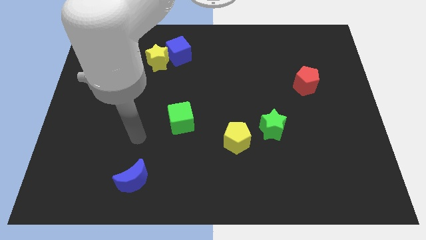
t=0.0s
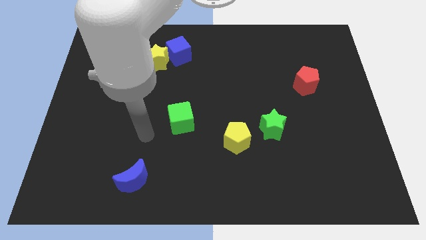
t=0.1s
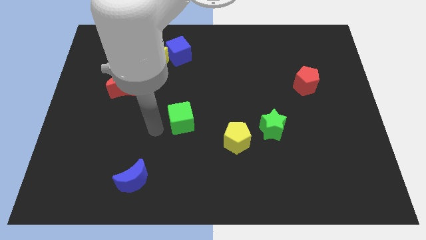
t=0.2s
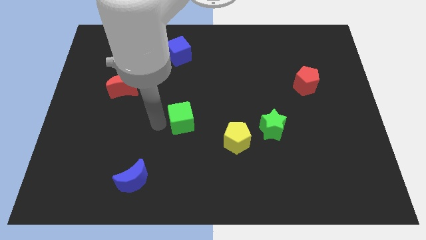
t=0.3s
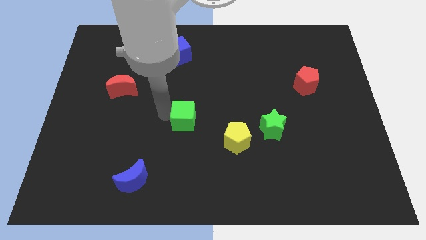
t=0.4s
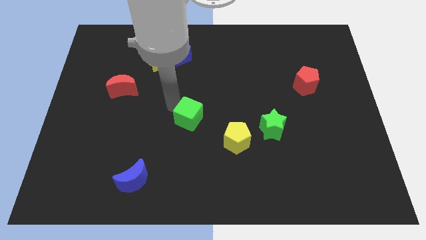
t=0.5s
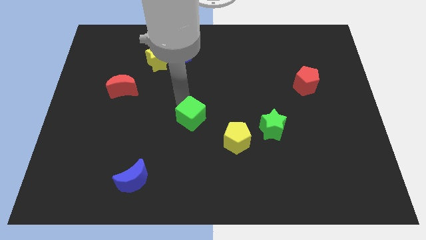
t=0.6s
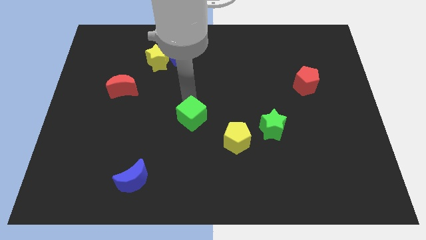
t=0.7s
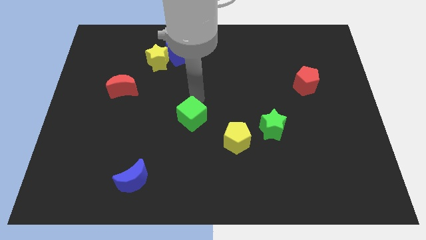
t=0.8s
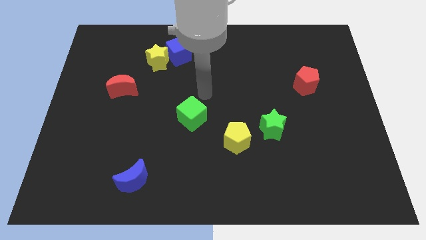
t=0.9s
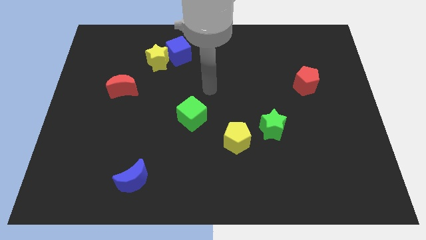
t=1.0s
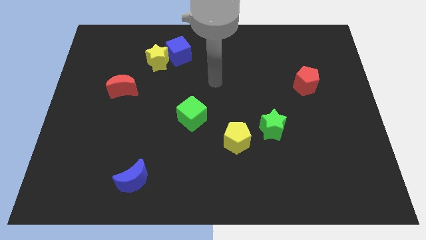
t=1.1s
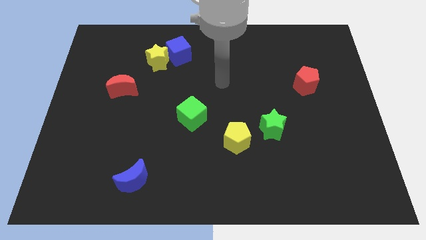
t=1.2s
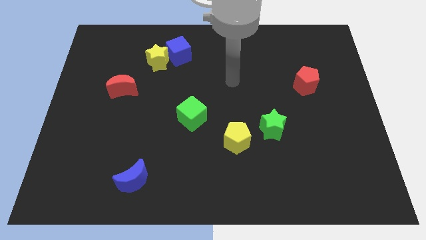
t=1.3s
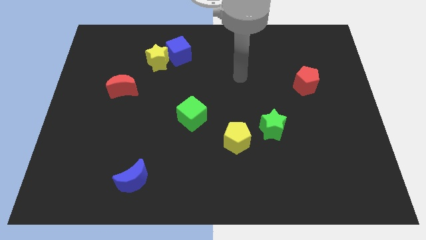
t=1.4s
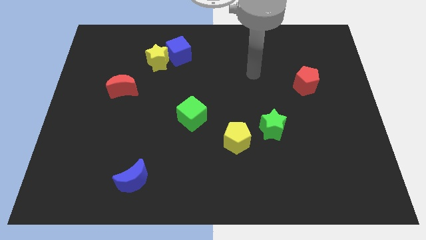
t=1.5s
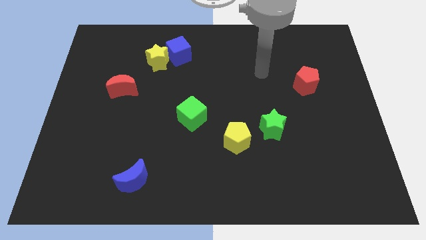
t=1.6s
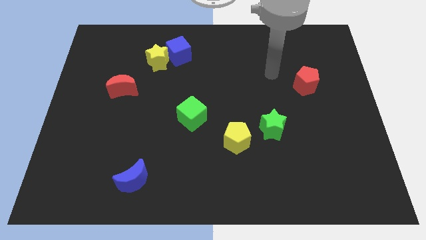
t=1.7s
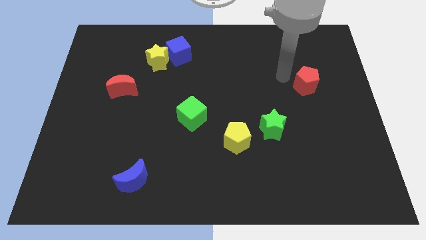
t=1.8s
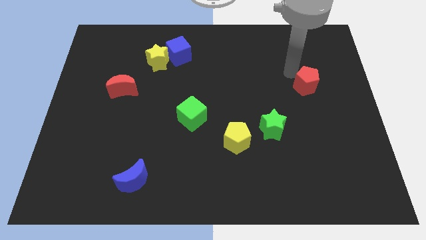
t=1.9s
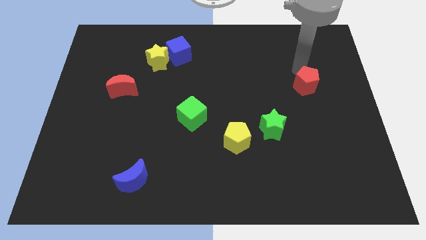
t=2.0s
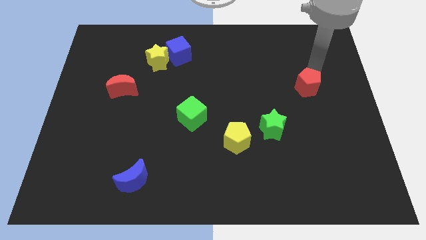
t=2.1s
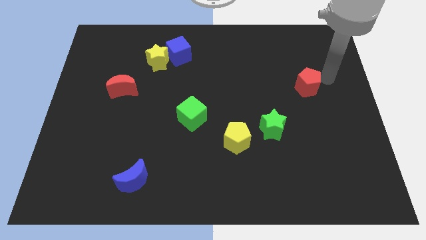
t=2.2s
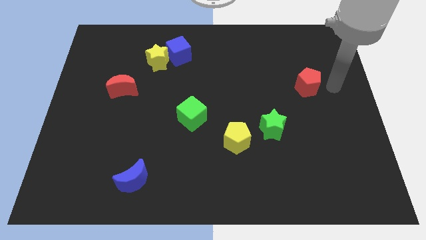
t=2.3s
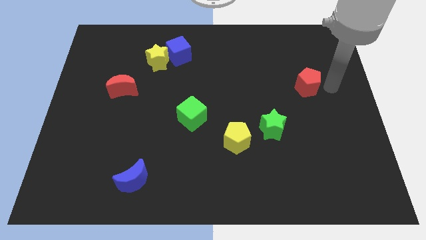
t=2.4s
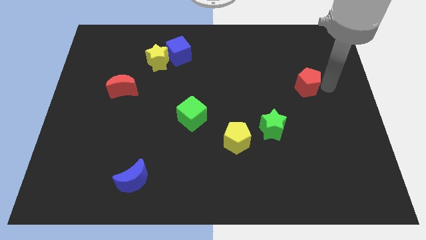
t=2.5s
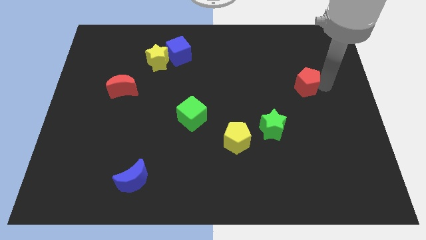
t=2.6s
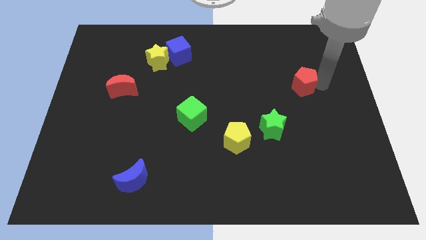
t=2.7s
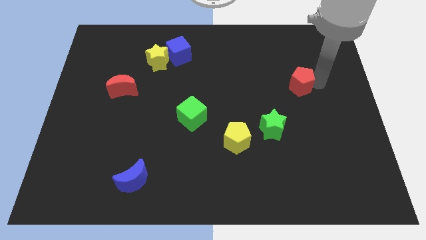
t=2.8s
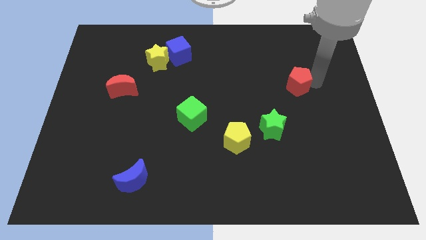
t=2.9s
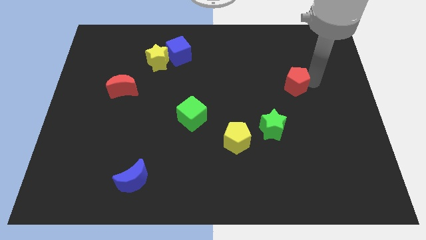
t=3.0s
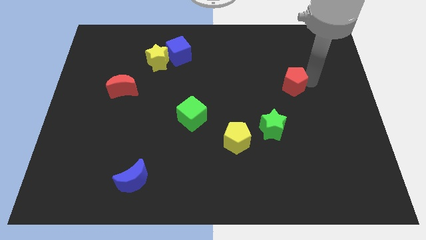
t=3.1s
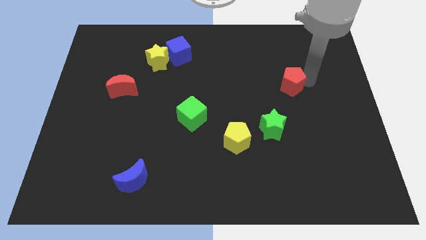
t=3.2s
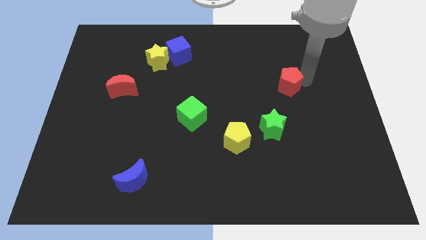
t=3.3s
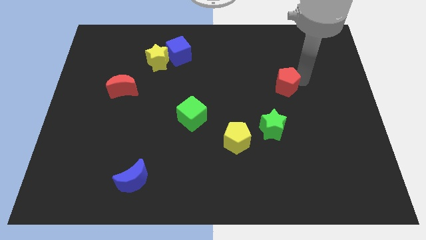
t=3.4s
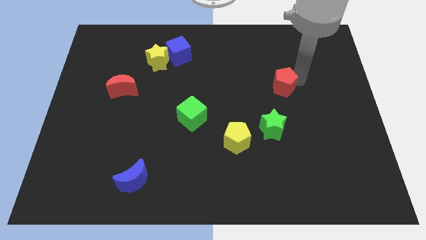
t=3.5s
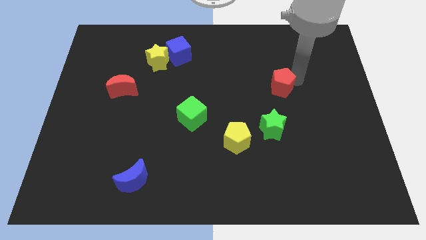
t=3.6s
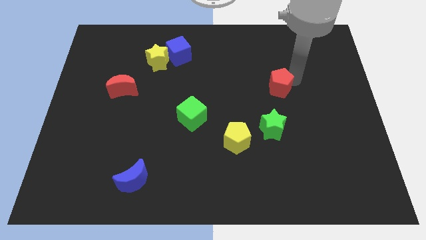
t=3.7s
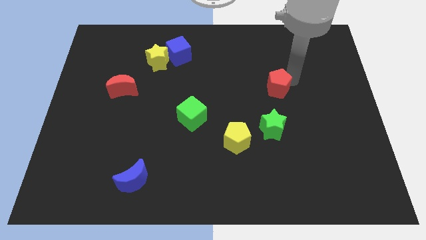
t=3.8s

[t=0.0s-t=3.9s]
push the red pentagon a little to the left

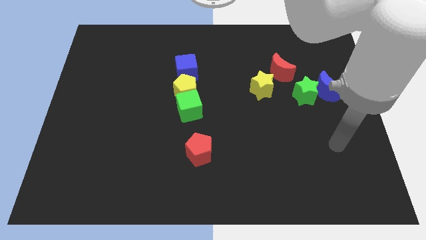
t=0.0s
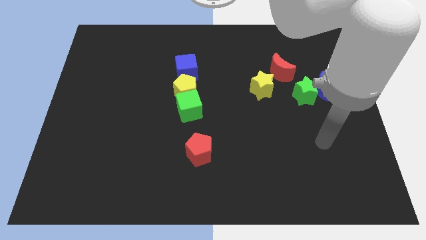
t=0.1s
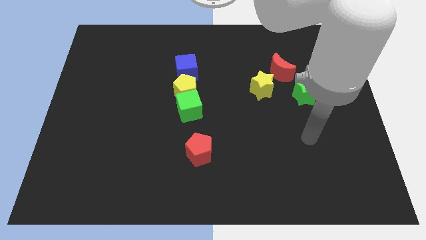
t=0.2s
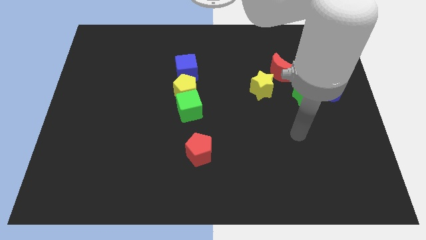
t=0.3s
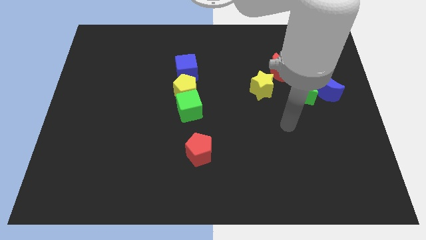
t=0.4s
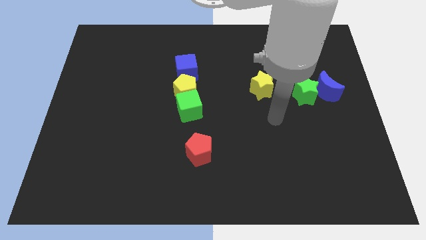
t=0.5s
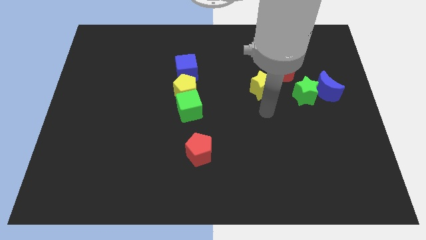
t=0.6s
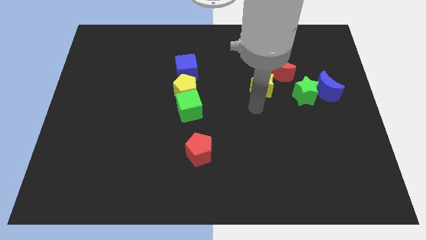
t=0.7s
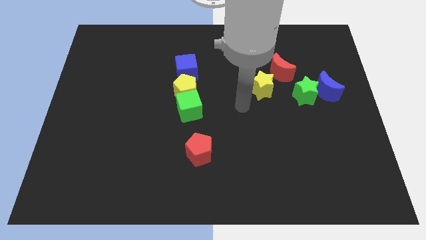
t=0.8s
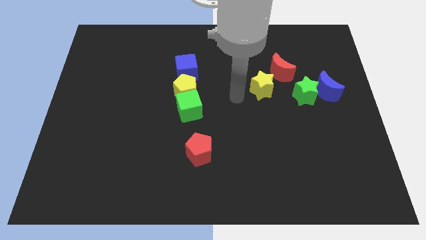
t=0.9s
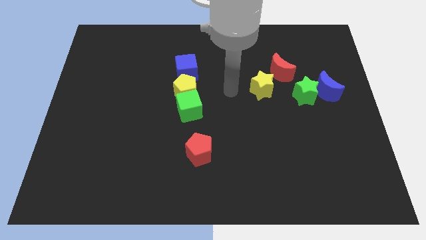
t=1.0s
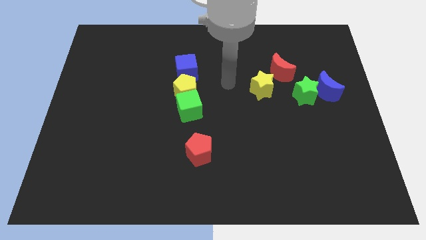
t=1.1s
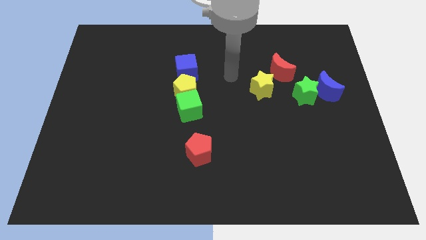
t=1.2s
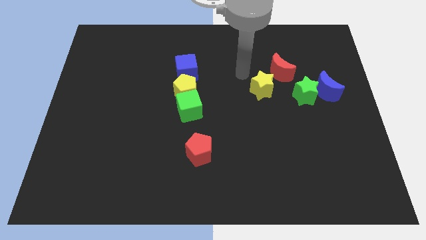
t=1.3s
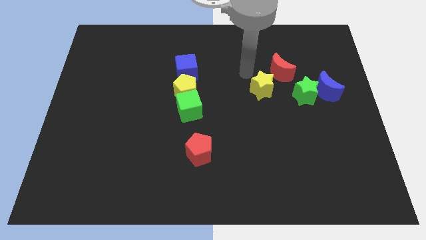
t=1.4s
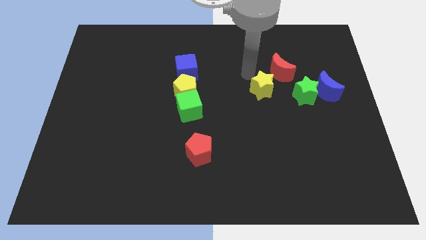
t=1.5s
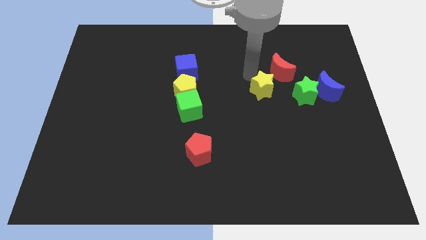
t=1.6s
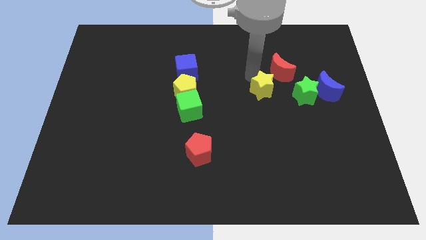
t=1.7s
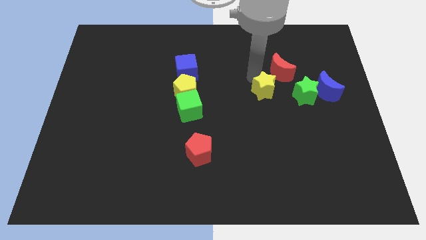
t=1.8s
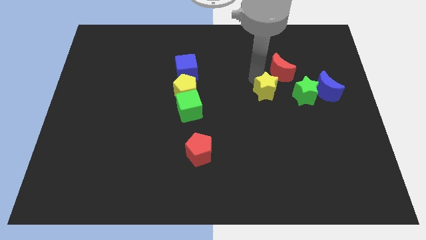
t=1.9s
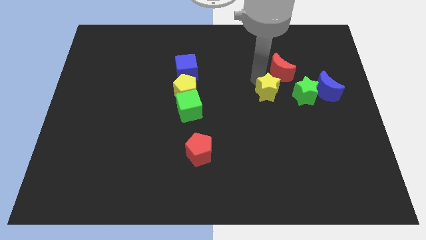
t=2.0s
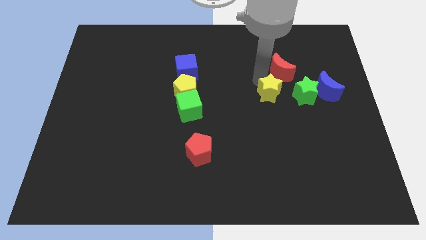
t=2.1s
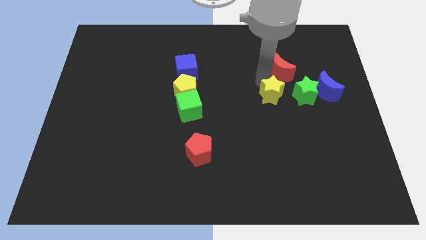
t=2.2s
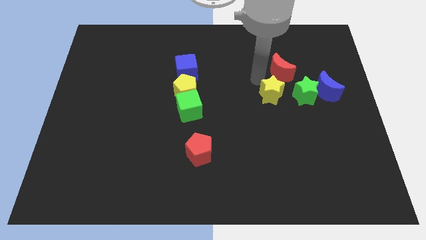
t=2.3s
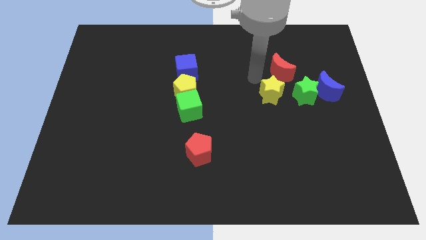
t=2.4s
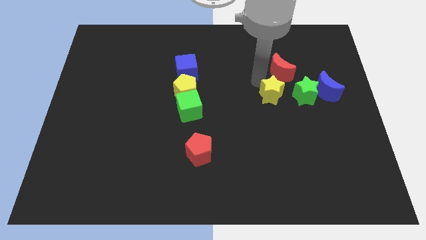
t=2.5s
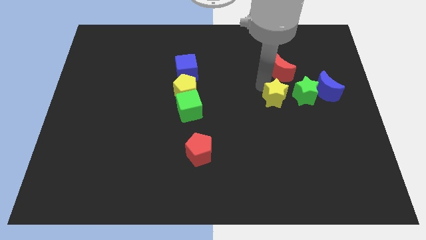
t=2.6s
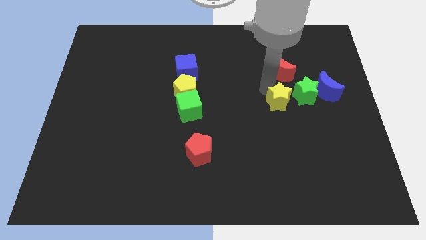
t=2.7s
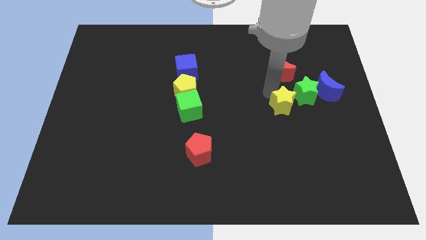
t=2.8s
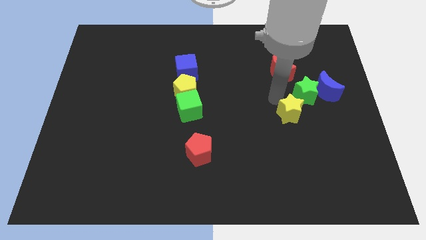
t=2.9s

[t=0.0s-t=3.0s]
slightly push the yellow star down and to the right diagonally

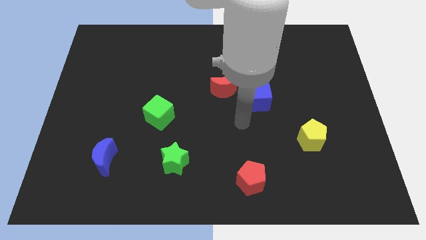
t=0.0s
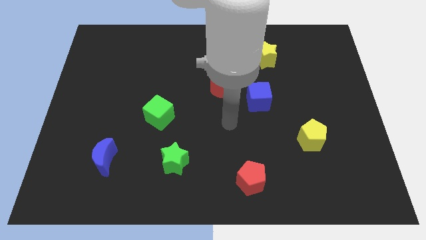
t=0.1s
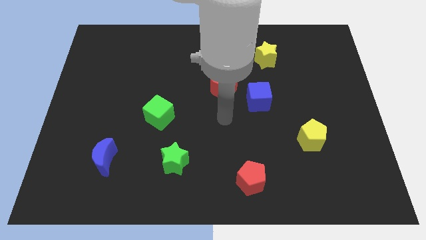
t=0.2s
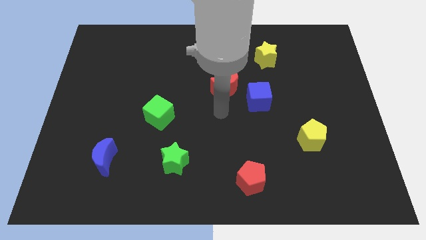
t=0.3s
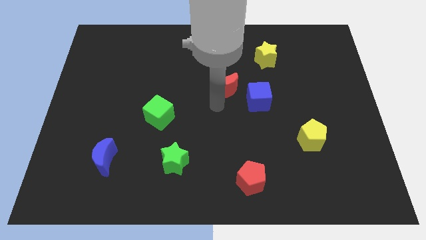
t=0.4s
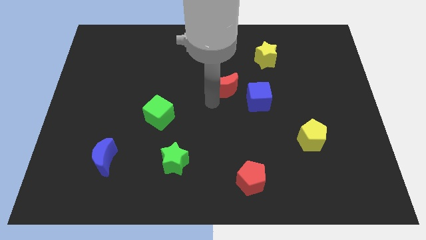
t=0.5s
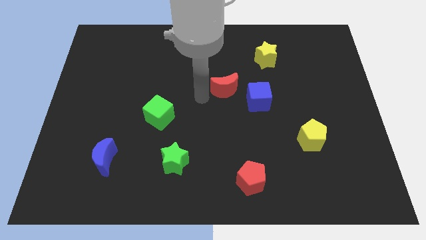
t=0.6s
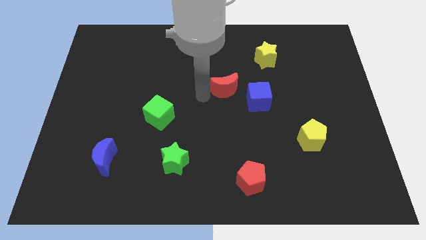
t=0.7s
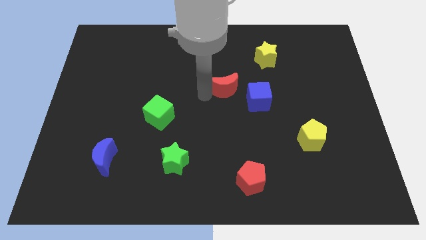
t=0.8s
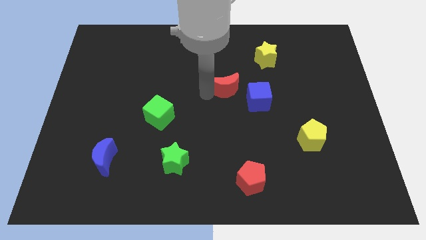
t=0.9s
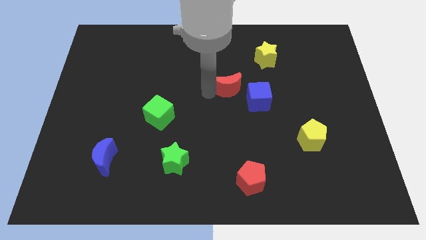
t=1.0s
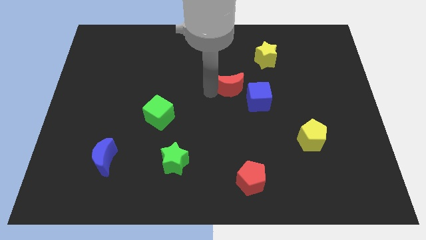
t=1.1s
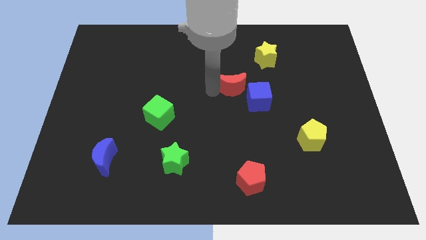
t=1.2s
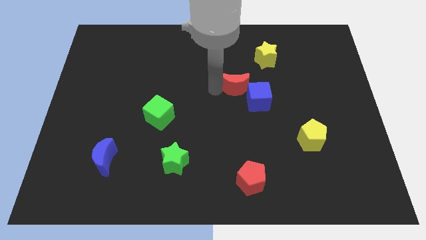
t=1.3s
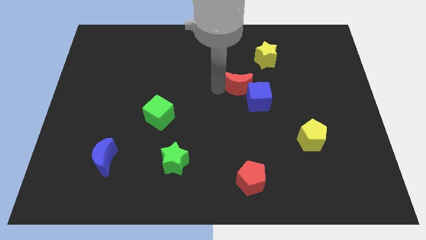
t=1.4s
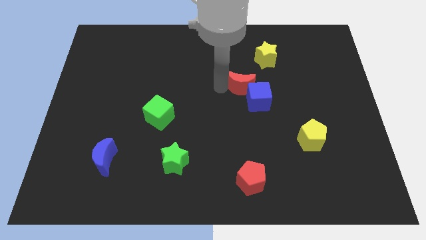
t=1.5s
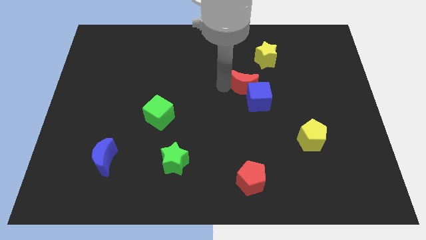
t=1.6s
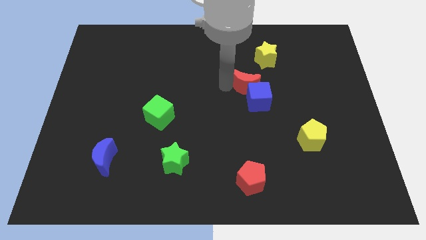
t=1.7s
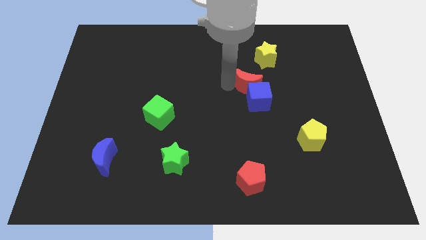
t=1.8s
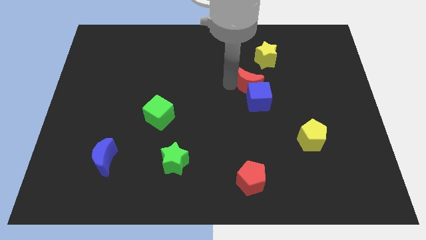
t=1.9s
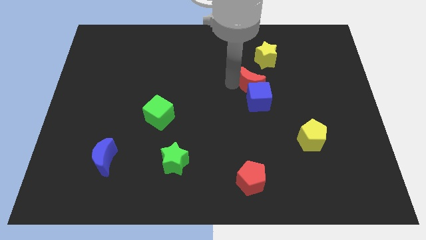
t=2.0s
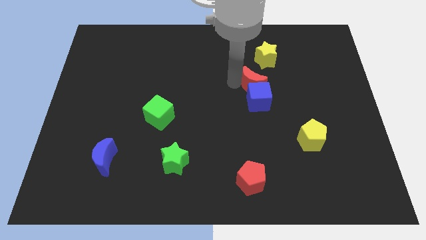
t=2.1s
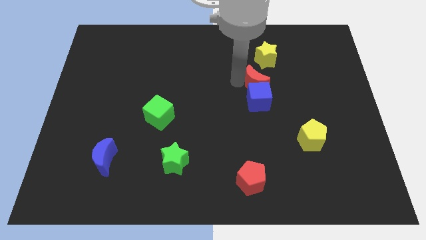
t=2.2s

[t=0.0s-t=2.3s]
slightly move the red moon to the right
